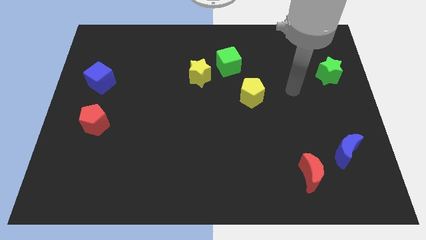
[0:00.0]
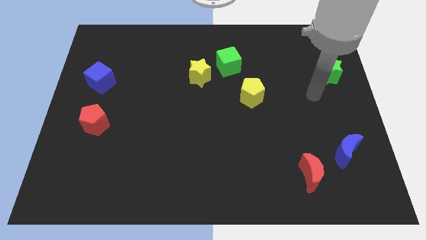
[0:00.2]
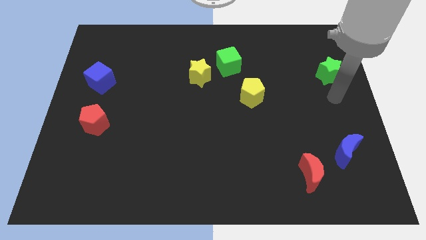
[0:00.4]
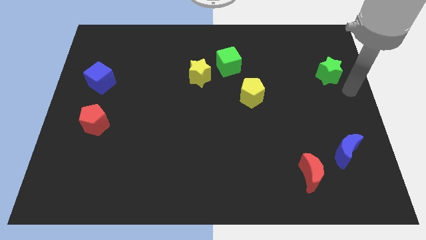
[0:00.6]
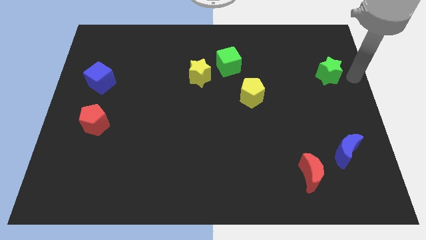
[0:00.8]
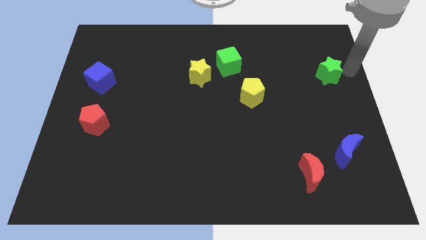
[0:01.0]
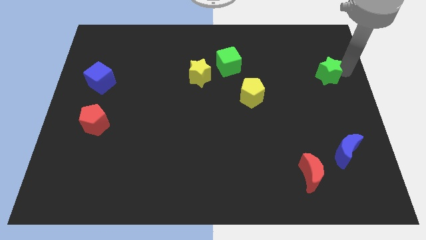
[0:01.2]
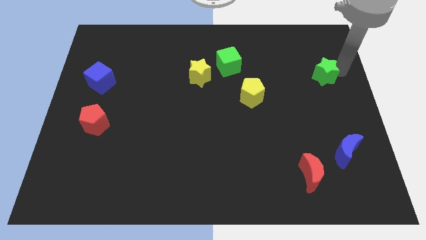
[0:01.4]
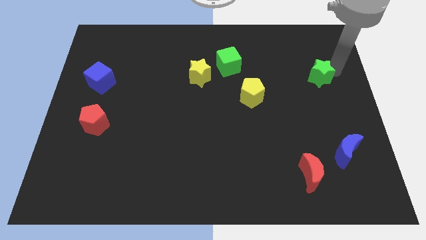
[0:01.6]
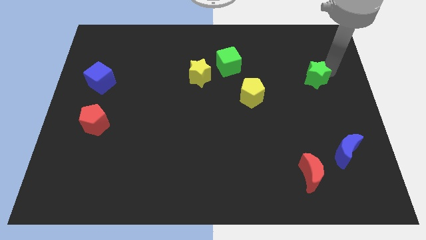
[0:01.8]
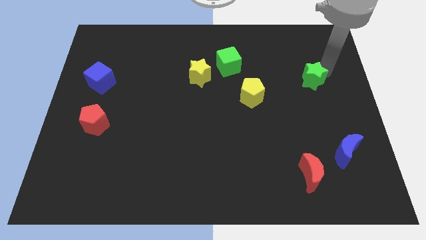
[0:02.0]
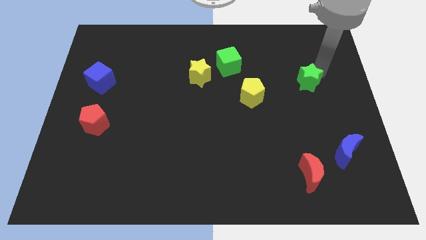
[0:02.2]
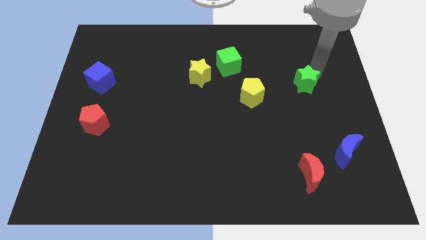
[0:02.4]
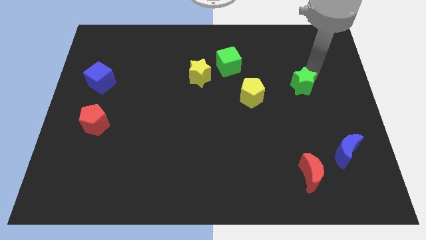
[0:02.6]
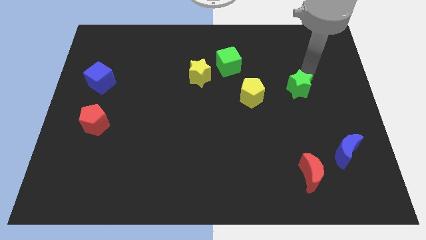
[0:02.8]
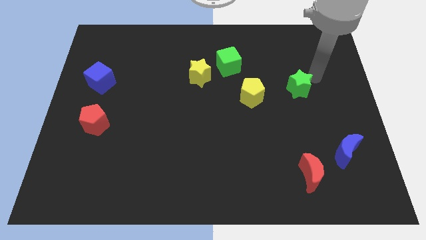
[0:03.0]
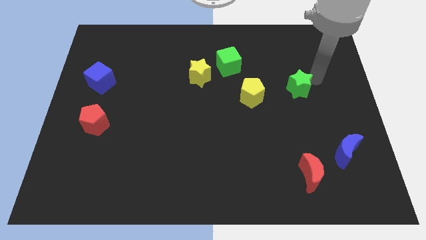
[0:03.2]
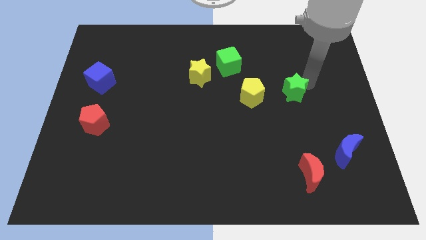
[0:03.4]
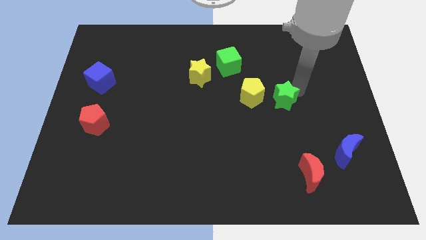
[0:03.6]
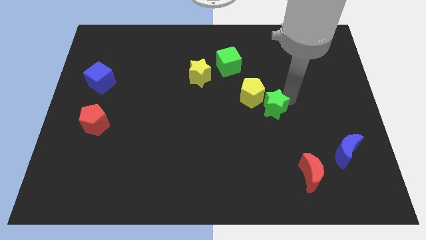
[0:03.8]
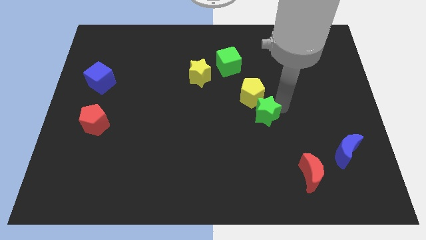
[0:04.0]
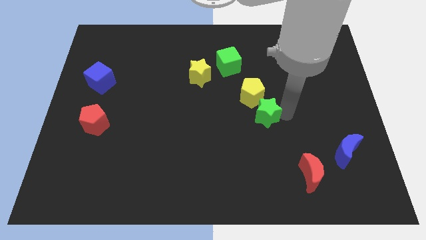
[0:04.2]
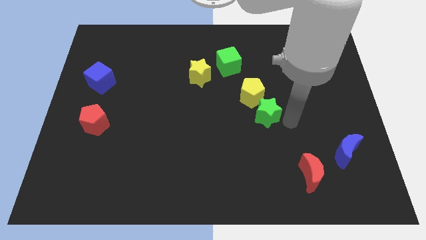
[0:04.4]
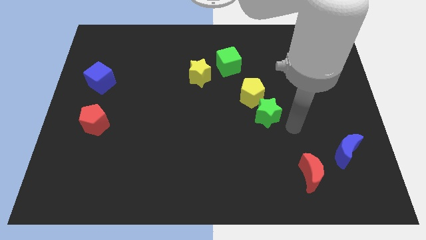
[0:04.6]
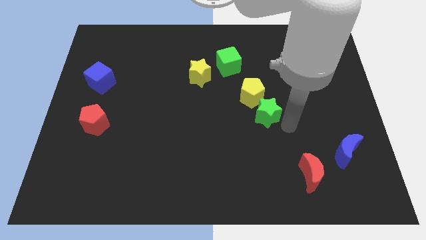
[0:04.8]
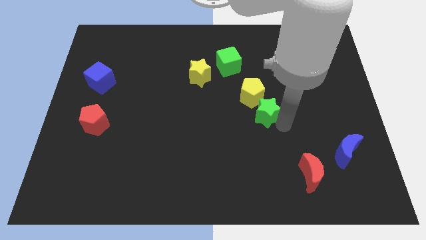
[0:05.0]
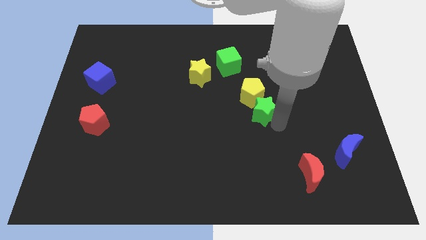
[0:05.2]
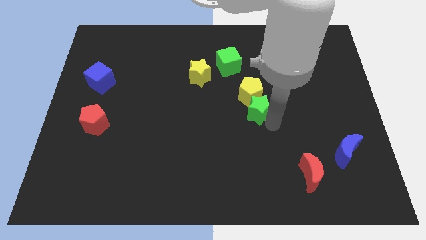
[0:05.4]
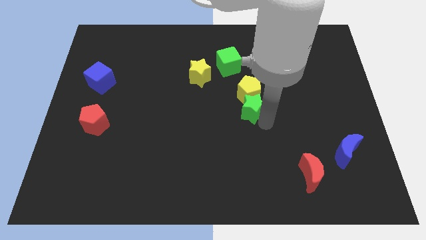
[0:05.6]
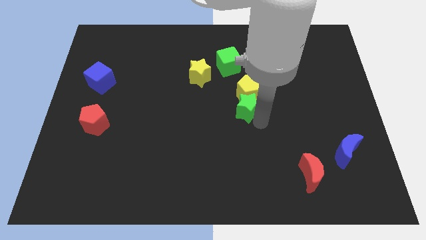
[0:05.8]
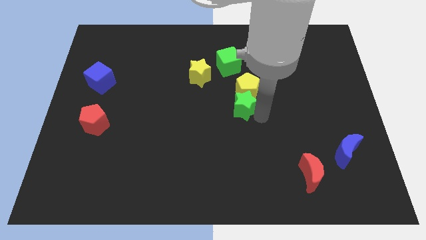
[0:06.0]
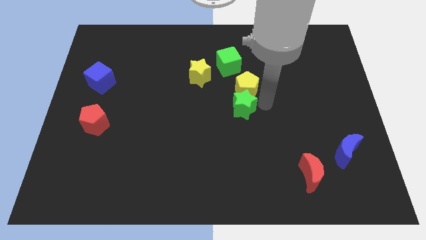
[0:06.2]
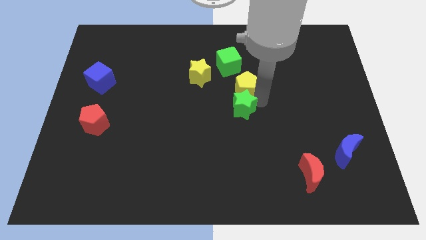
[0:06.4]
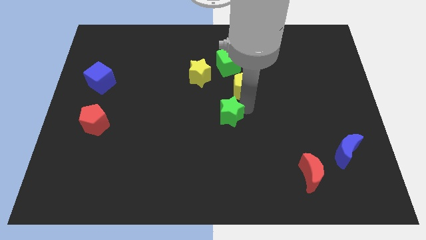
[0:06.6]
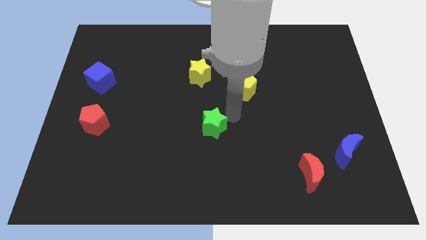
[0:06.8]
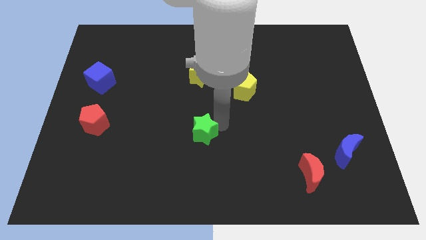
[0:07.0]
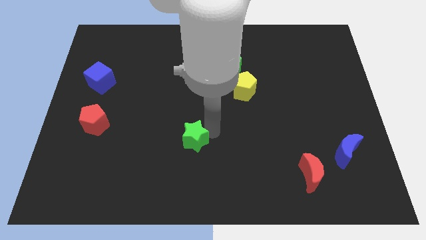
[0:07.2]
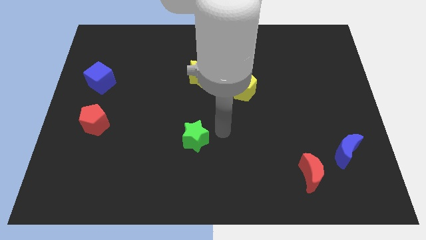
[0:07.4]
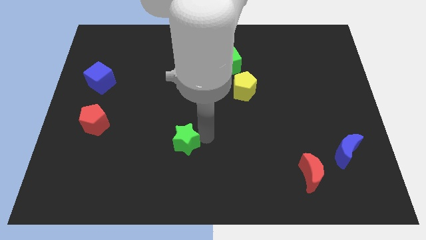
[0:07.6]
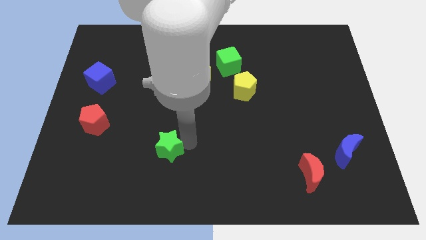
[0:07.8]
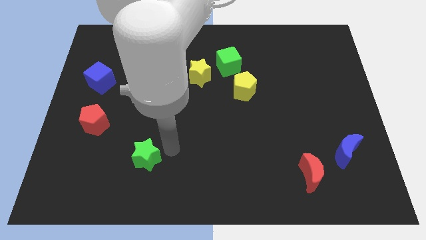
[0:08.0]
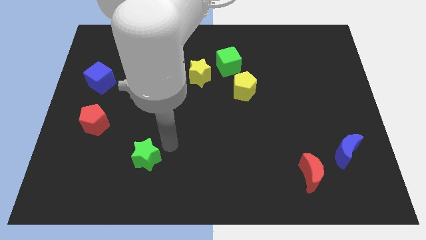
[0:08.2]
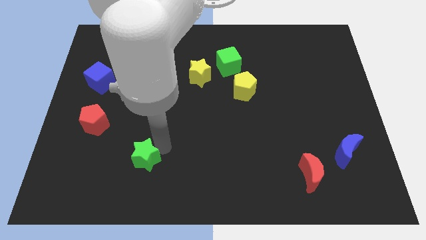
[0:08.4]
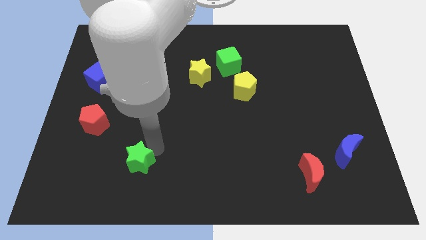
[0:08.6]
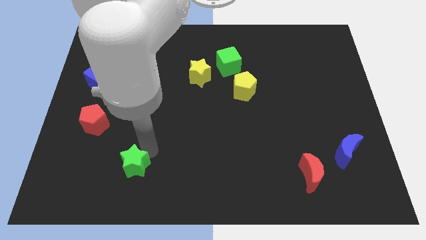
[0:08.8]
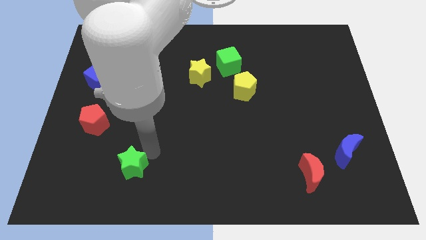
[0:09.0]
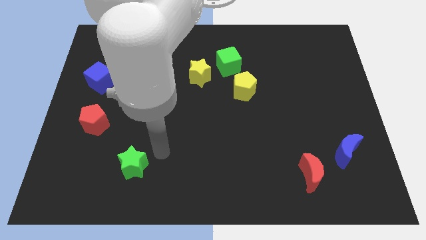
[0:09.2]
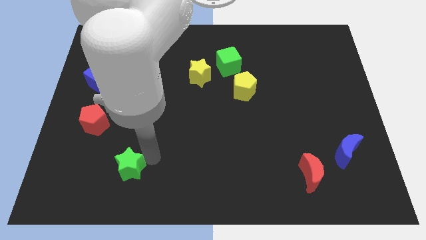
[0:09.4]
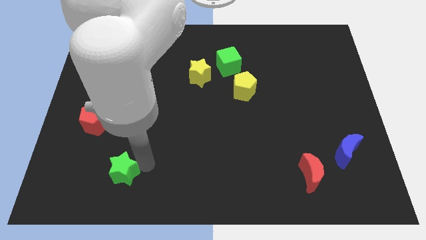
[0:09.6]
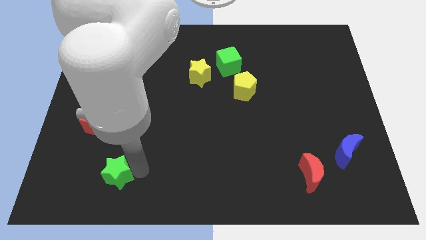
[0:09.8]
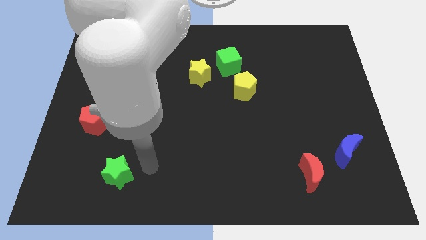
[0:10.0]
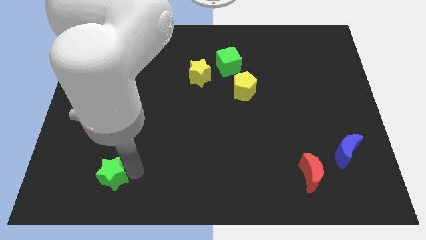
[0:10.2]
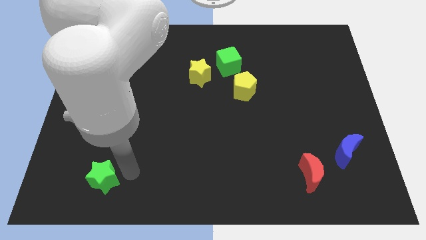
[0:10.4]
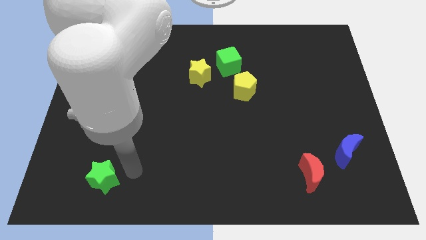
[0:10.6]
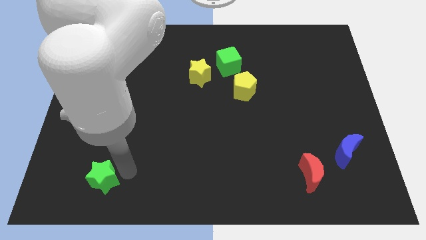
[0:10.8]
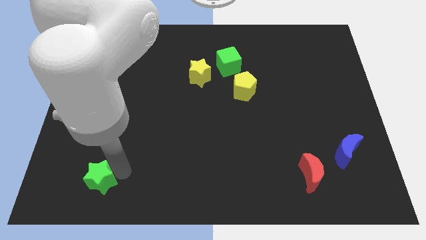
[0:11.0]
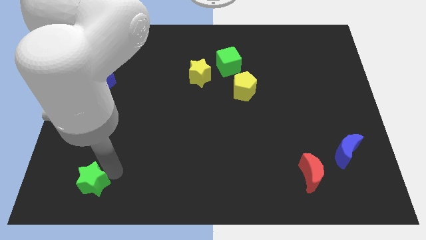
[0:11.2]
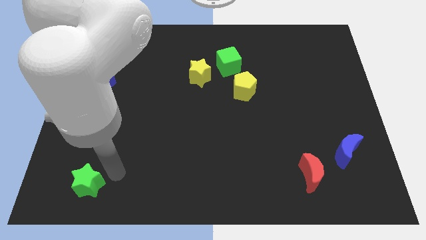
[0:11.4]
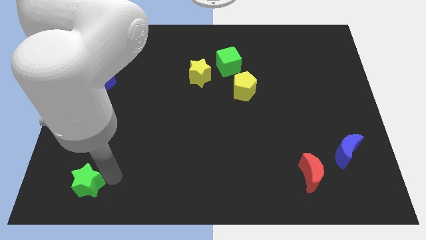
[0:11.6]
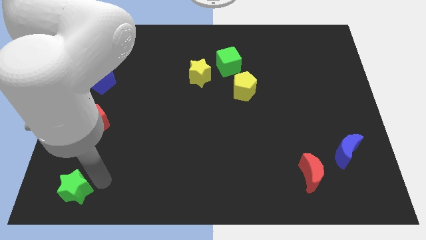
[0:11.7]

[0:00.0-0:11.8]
slide the green star to the bottom left

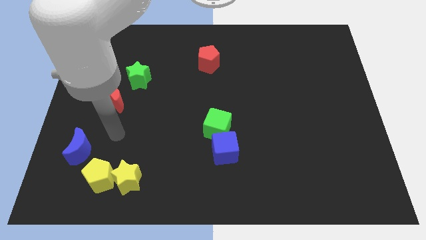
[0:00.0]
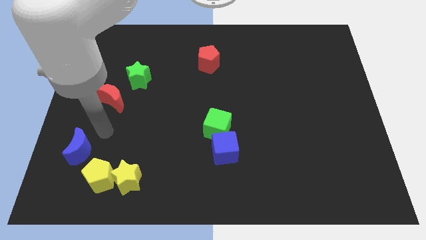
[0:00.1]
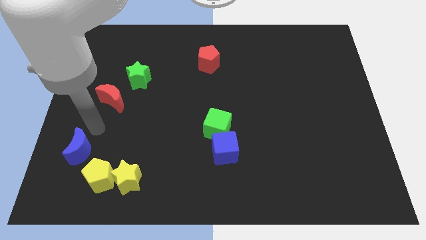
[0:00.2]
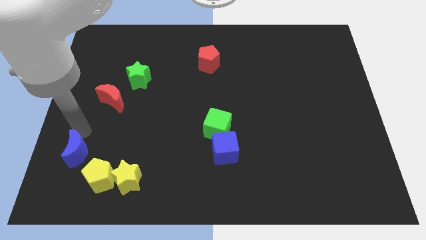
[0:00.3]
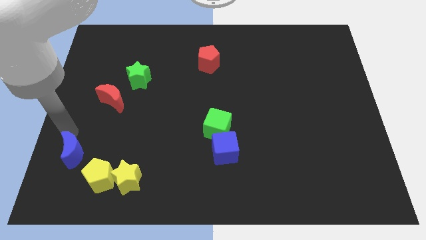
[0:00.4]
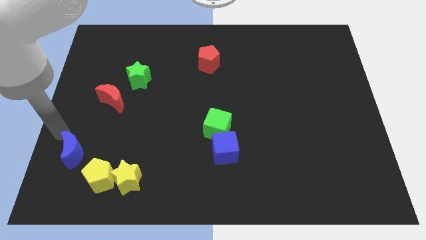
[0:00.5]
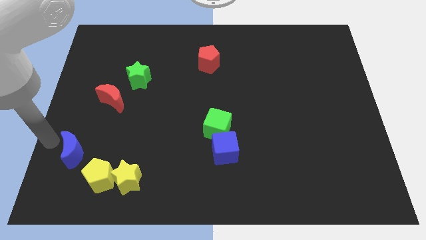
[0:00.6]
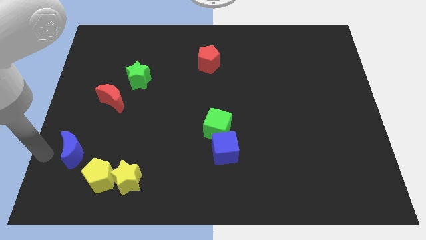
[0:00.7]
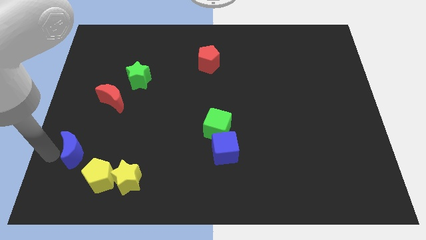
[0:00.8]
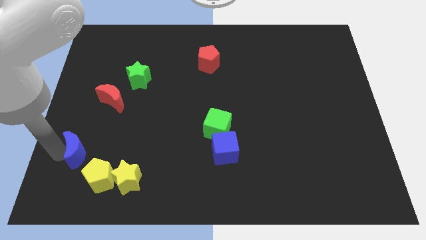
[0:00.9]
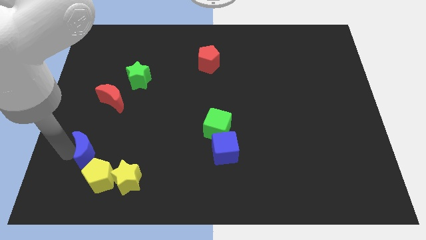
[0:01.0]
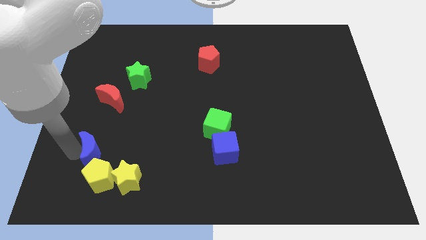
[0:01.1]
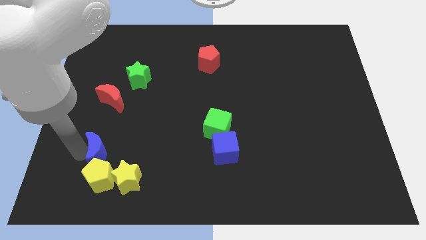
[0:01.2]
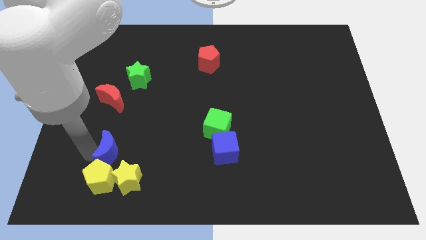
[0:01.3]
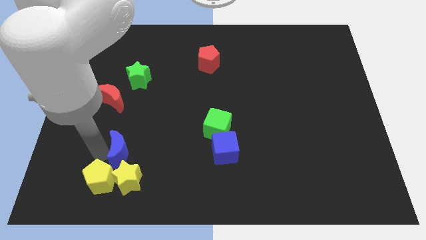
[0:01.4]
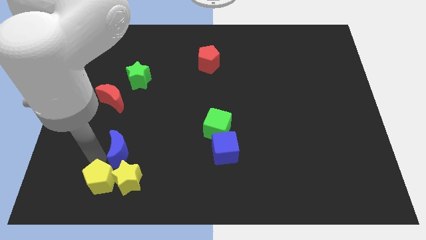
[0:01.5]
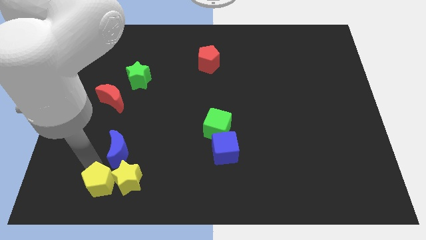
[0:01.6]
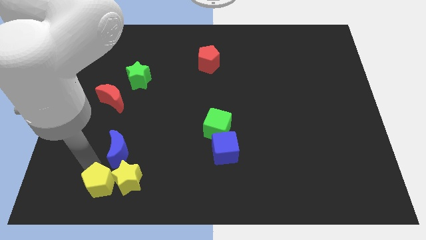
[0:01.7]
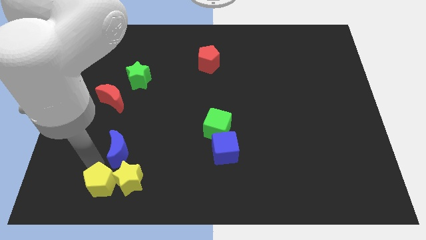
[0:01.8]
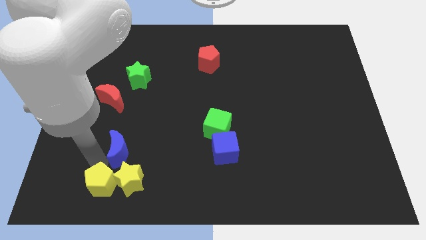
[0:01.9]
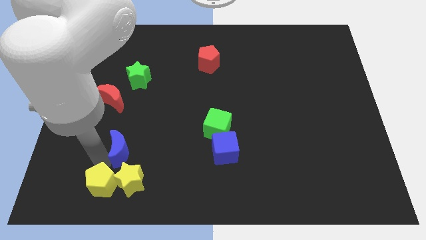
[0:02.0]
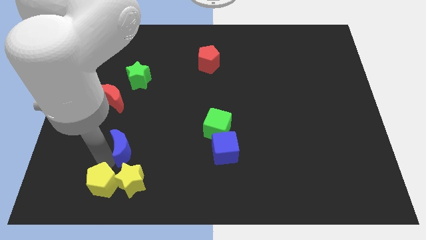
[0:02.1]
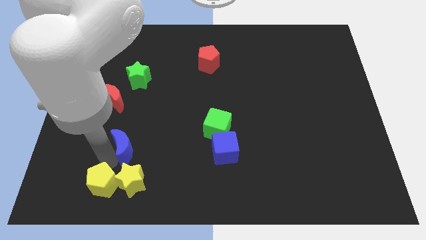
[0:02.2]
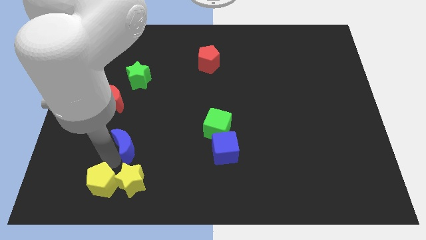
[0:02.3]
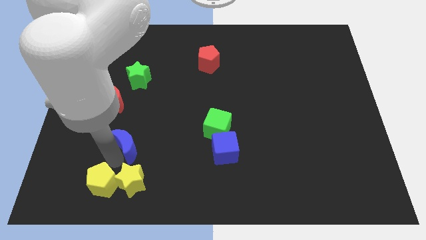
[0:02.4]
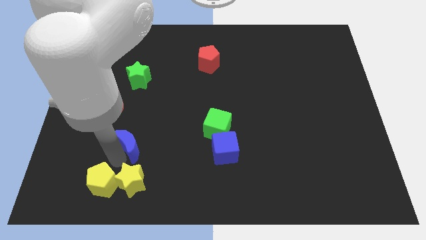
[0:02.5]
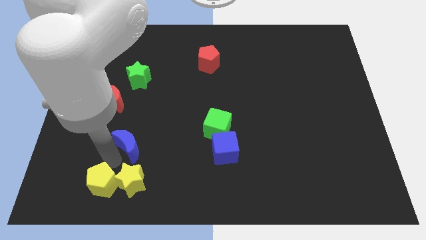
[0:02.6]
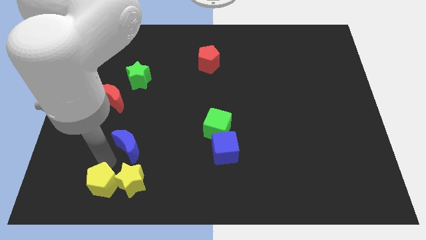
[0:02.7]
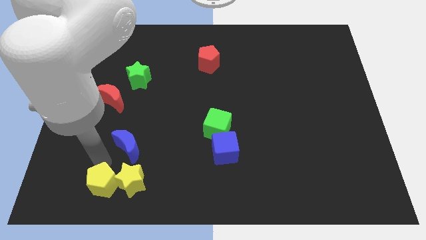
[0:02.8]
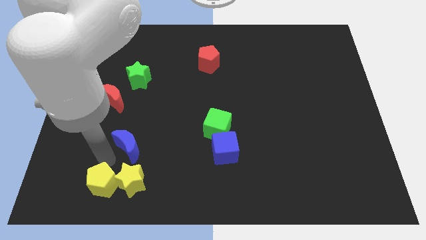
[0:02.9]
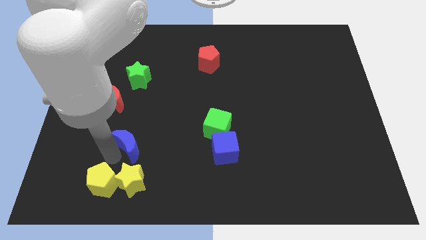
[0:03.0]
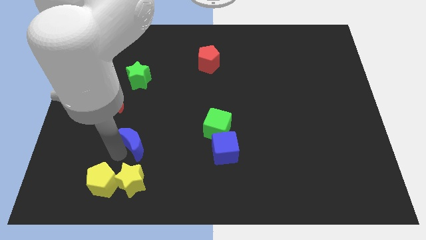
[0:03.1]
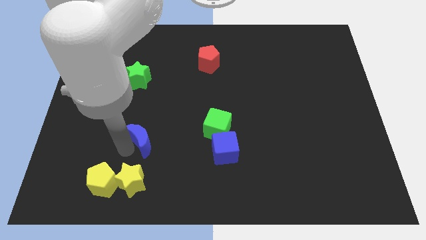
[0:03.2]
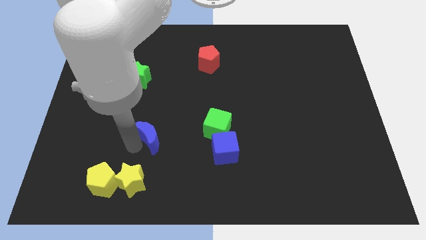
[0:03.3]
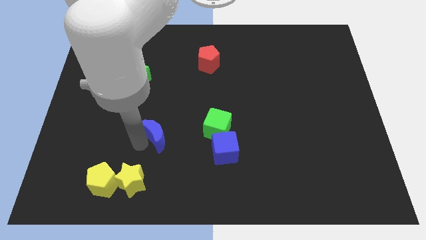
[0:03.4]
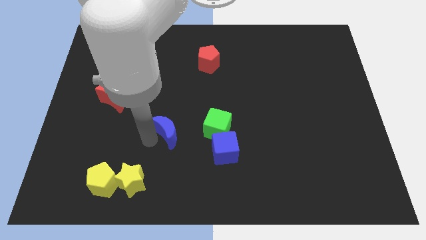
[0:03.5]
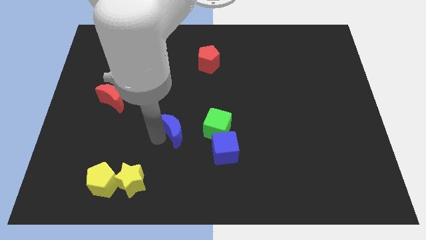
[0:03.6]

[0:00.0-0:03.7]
move the blue moon to the middle
